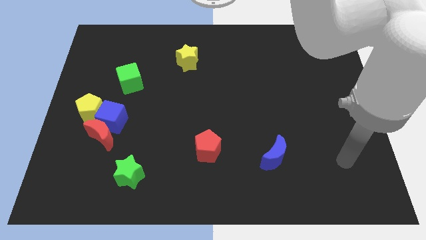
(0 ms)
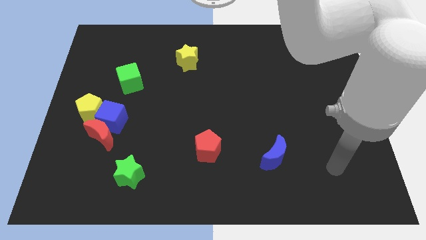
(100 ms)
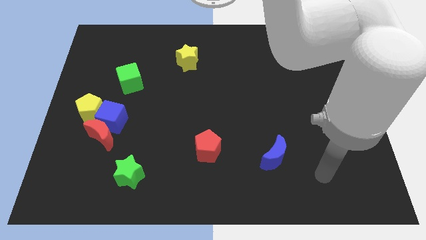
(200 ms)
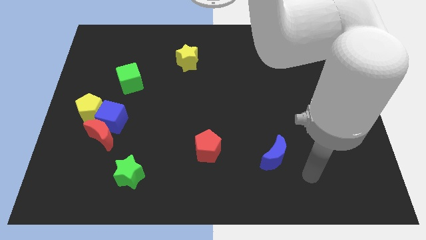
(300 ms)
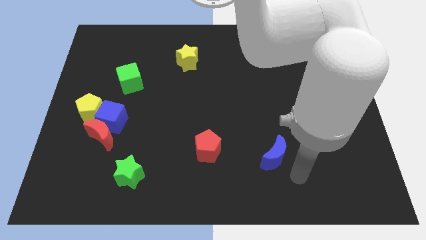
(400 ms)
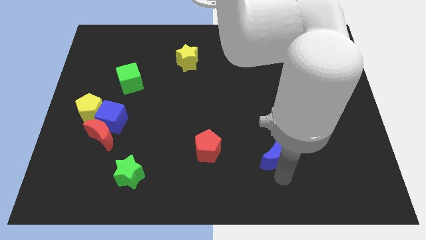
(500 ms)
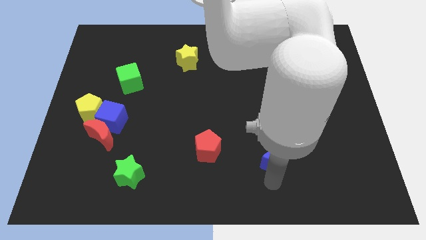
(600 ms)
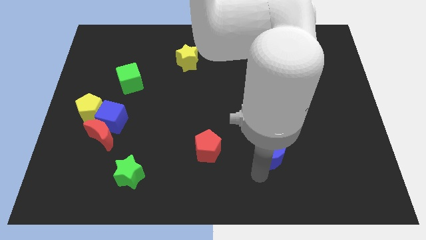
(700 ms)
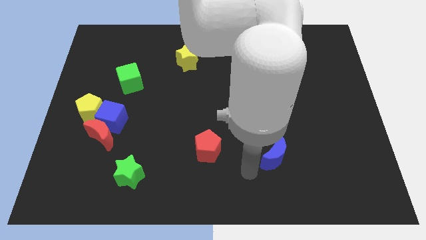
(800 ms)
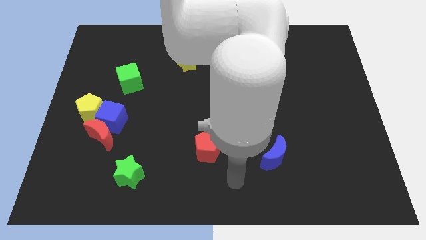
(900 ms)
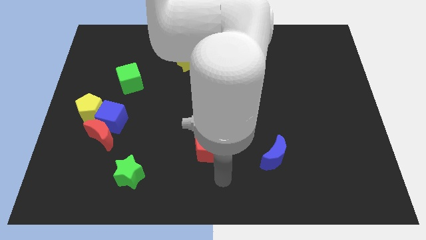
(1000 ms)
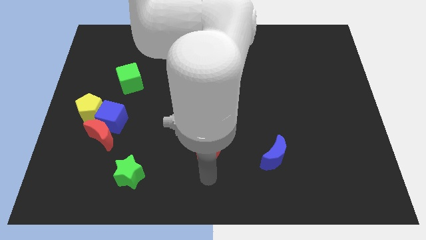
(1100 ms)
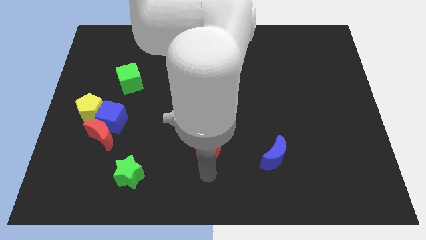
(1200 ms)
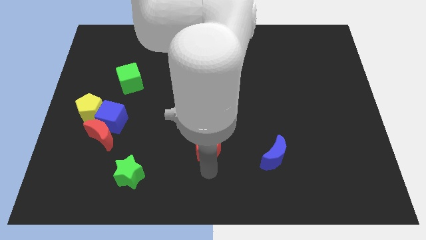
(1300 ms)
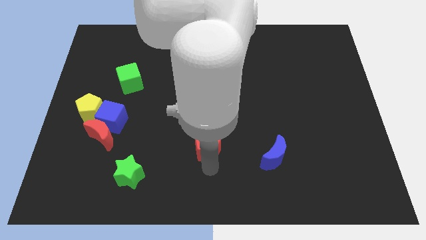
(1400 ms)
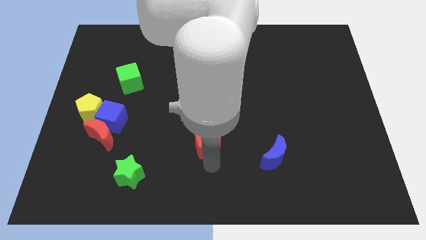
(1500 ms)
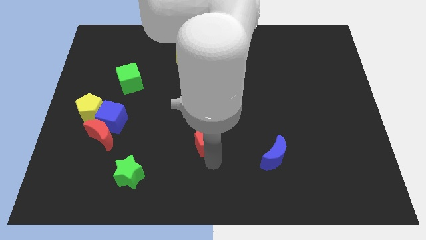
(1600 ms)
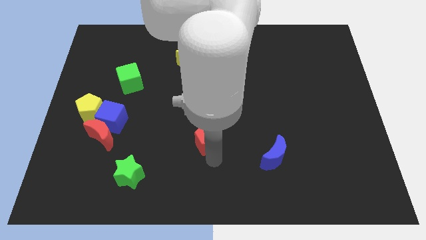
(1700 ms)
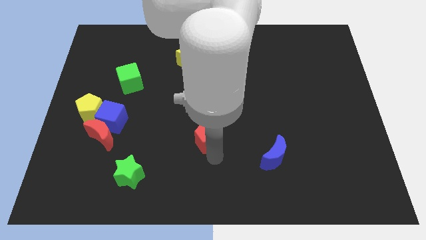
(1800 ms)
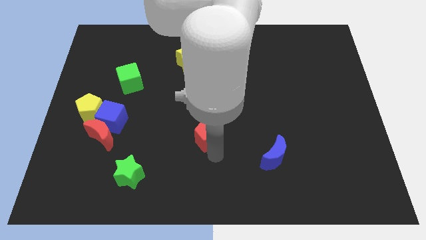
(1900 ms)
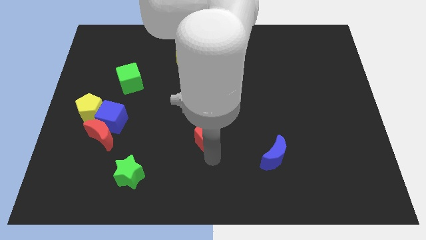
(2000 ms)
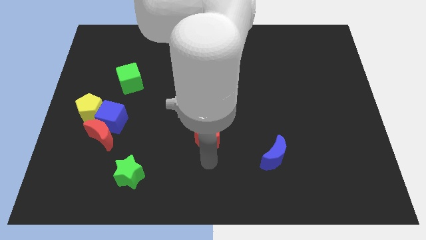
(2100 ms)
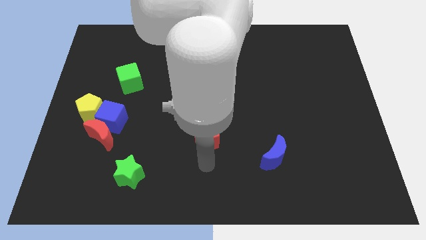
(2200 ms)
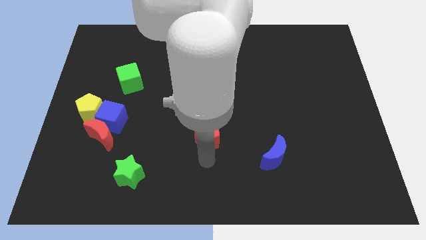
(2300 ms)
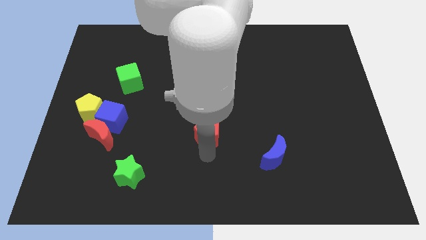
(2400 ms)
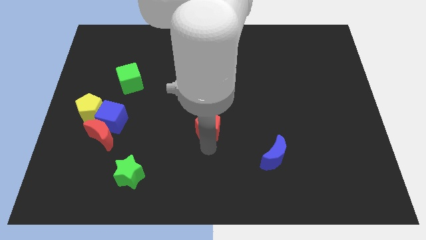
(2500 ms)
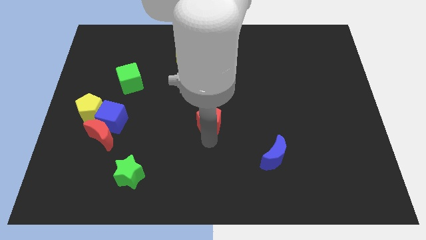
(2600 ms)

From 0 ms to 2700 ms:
push the red pentagon upwards a bit

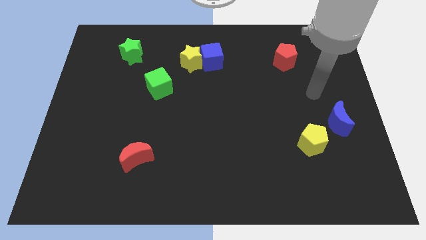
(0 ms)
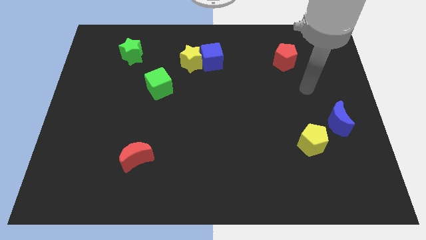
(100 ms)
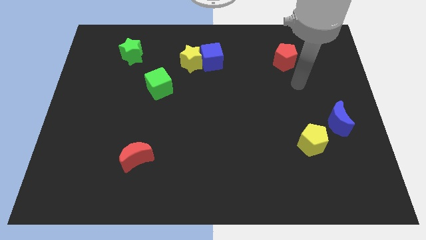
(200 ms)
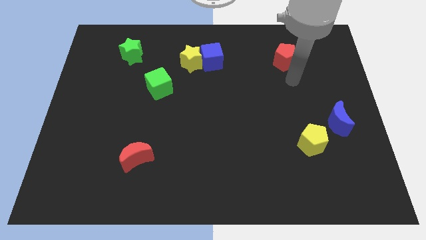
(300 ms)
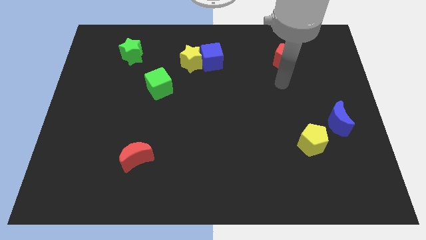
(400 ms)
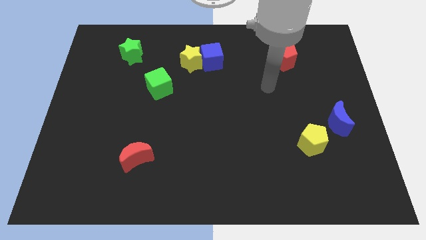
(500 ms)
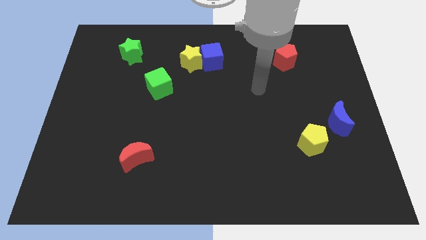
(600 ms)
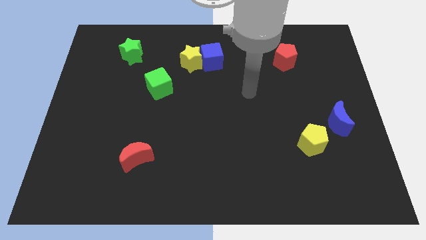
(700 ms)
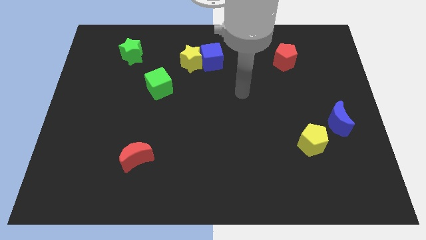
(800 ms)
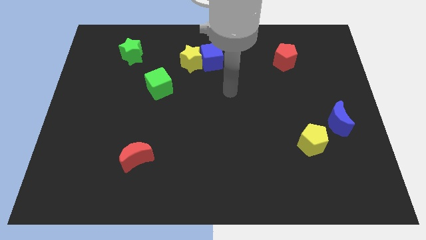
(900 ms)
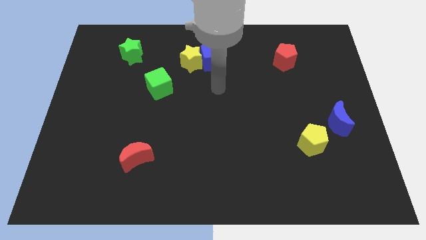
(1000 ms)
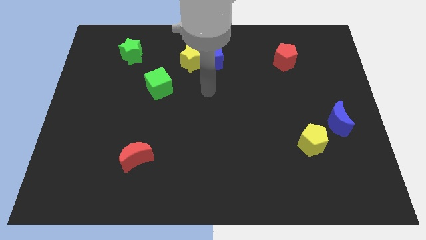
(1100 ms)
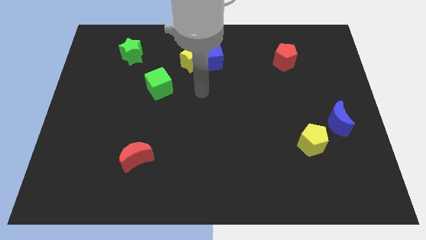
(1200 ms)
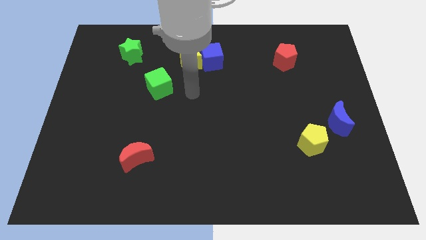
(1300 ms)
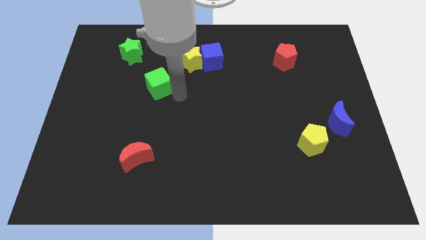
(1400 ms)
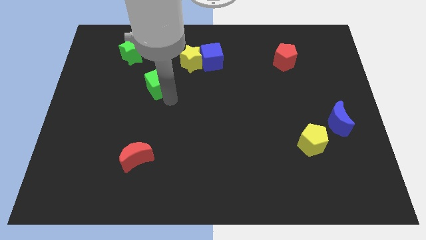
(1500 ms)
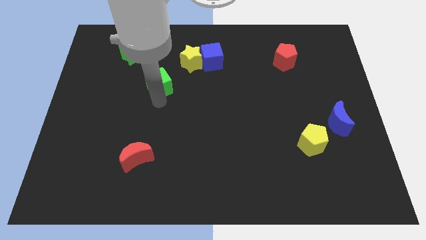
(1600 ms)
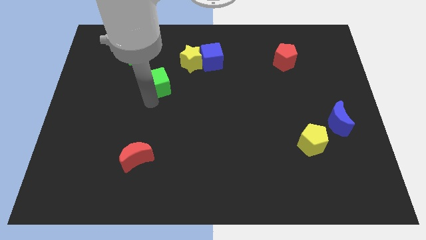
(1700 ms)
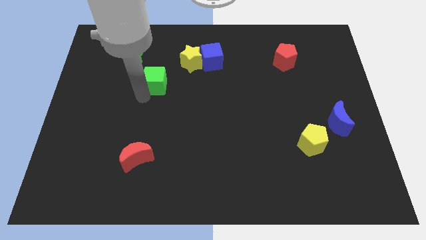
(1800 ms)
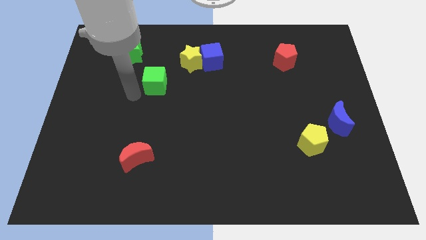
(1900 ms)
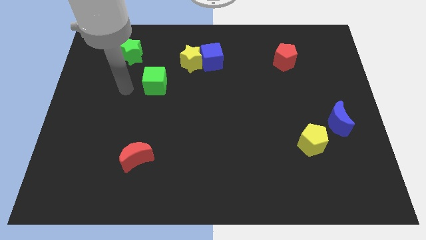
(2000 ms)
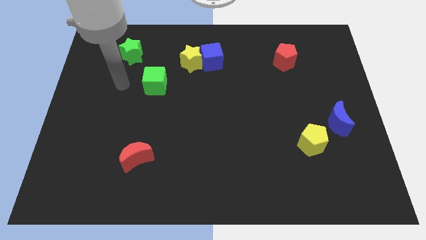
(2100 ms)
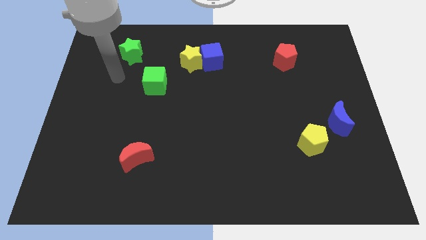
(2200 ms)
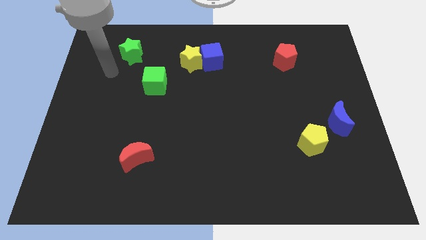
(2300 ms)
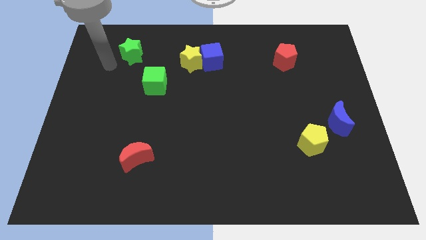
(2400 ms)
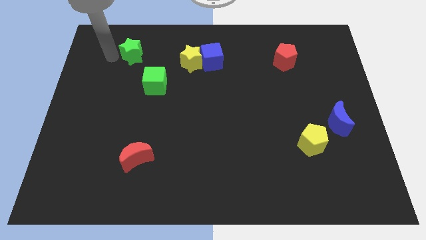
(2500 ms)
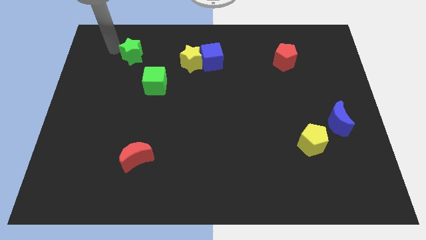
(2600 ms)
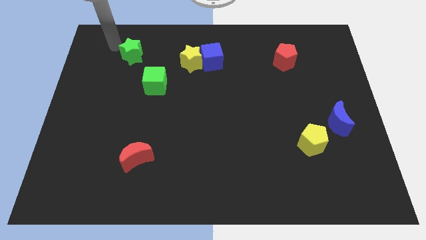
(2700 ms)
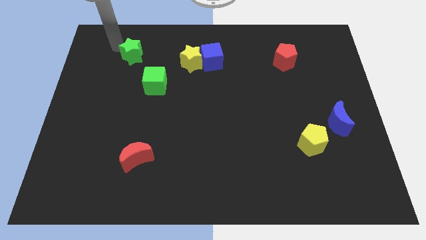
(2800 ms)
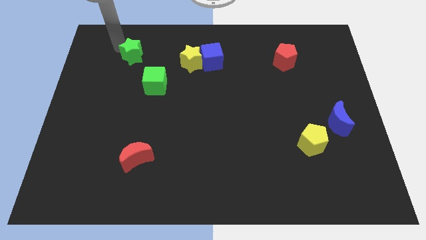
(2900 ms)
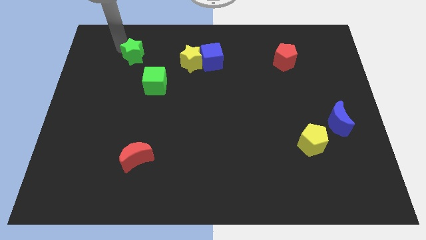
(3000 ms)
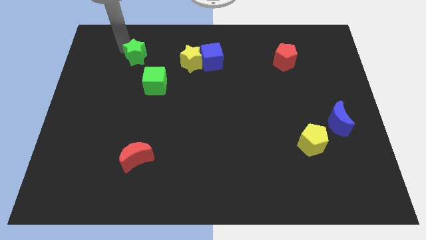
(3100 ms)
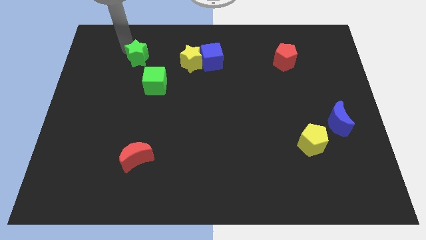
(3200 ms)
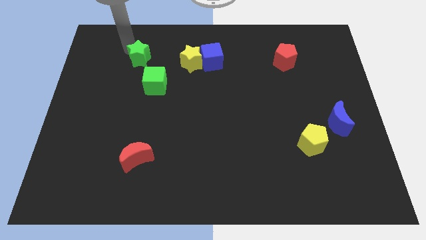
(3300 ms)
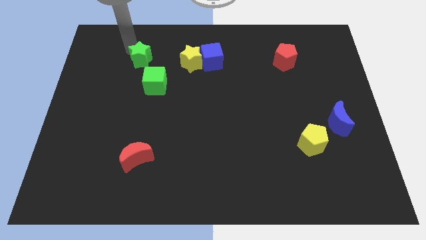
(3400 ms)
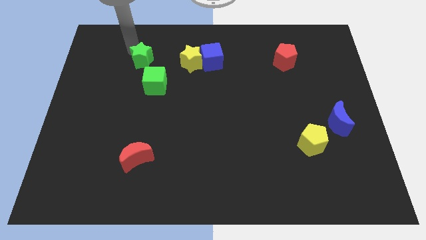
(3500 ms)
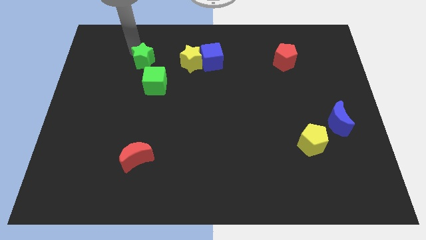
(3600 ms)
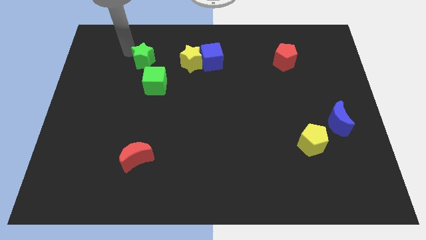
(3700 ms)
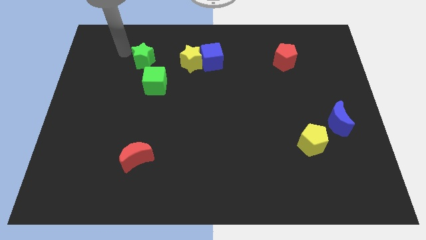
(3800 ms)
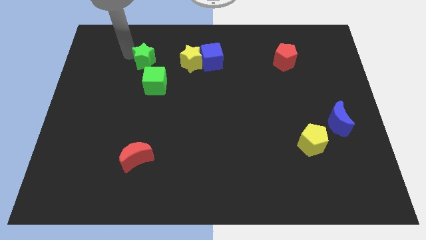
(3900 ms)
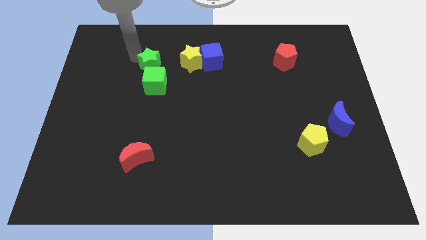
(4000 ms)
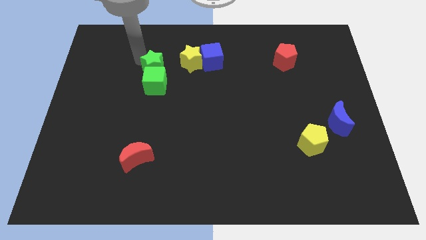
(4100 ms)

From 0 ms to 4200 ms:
move the green star a little bit diagonally downwards and right

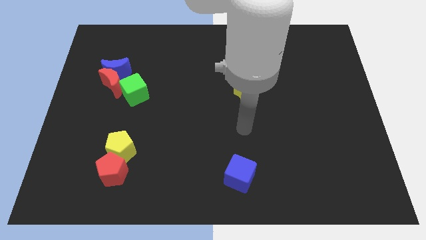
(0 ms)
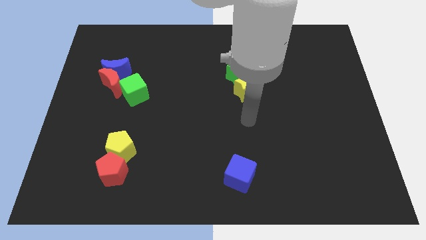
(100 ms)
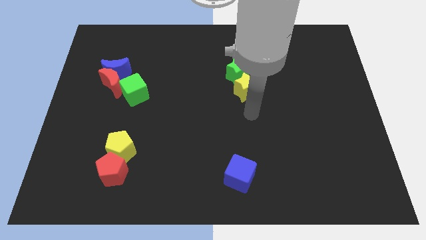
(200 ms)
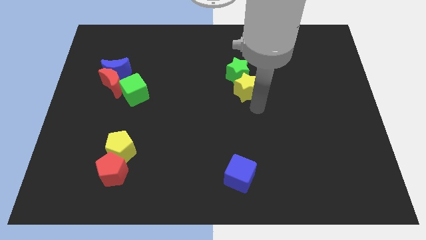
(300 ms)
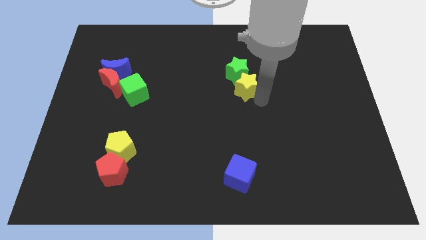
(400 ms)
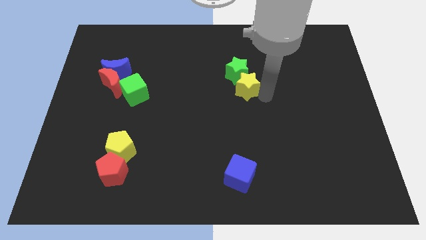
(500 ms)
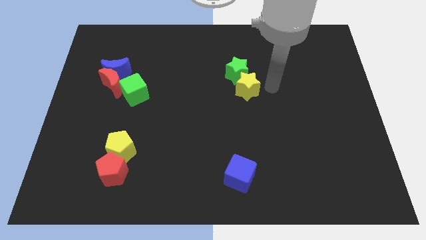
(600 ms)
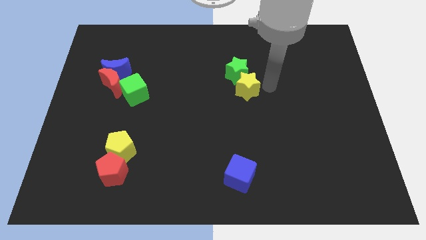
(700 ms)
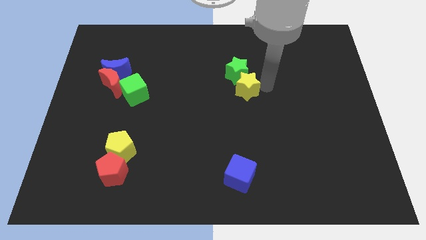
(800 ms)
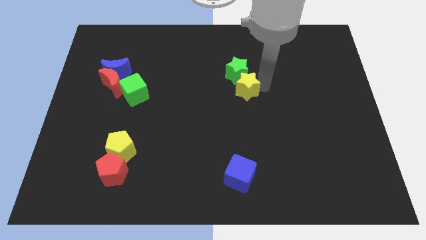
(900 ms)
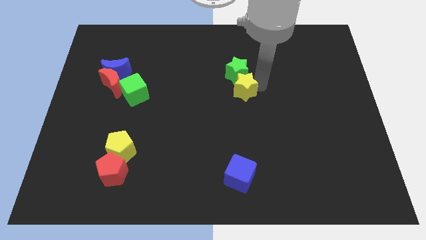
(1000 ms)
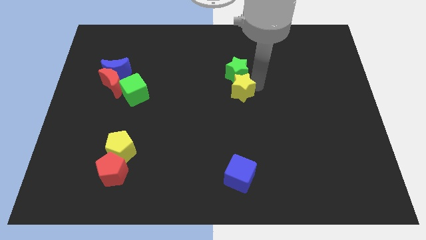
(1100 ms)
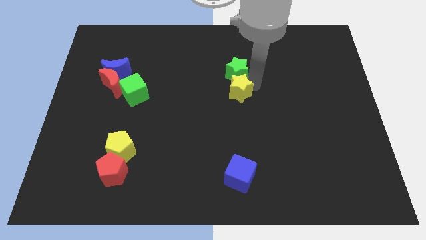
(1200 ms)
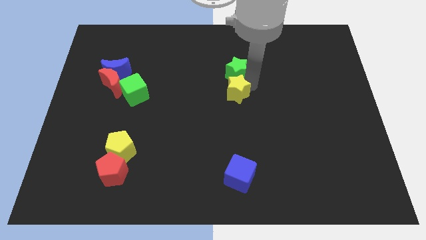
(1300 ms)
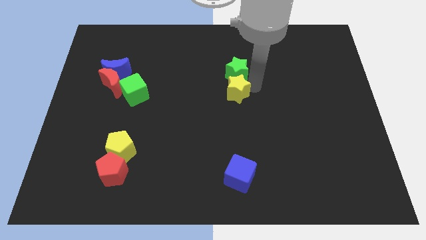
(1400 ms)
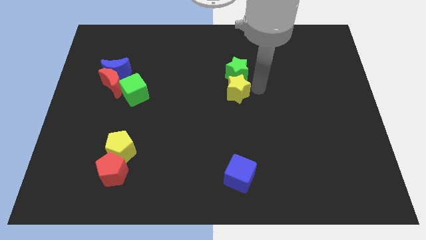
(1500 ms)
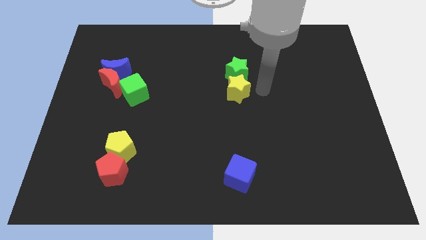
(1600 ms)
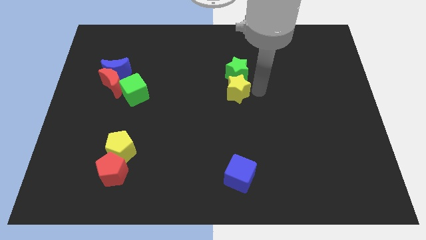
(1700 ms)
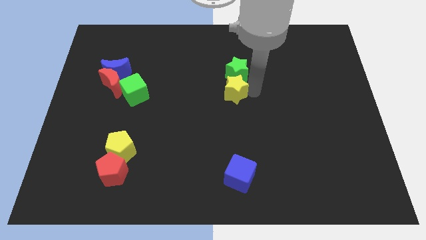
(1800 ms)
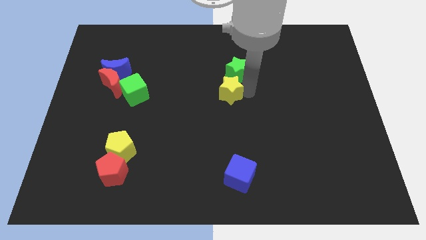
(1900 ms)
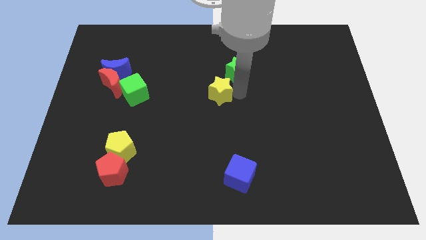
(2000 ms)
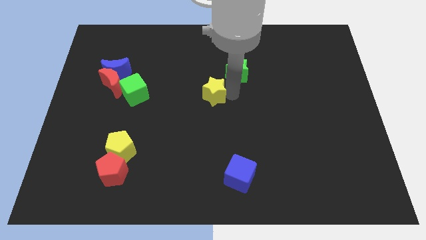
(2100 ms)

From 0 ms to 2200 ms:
slide the yellow star to the left a little
